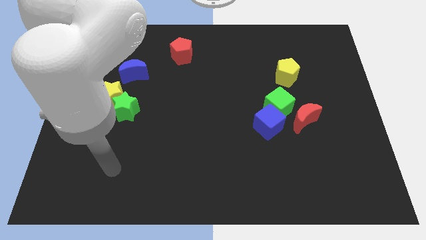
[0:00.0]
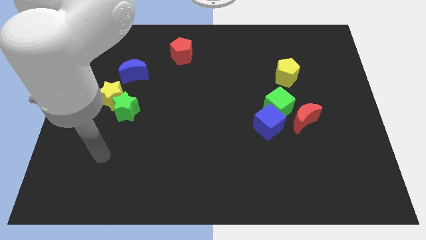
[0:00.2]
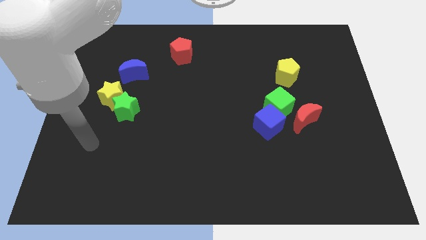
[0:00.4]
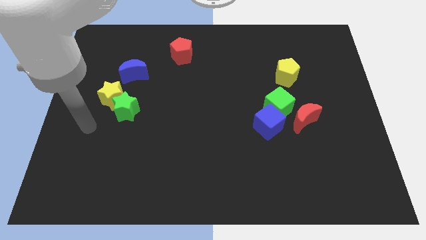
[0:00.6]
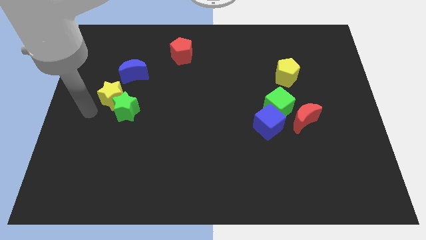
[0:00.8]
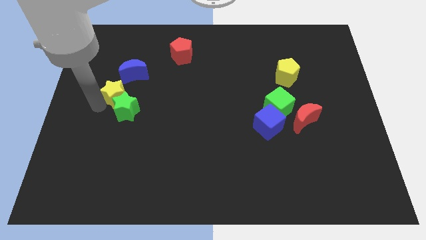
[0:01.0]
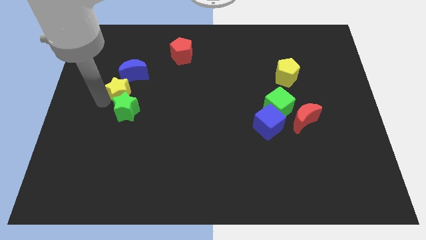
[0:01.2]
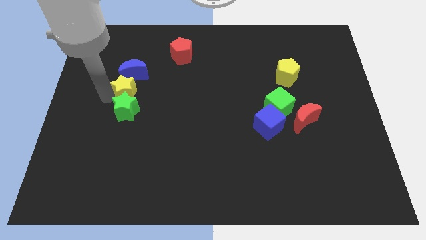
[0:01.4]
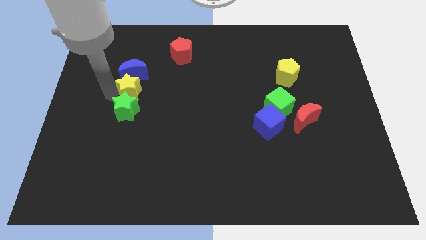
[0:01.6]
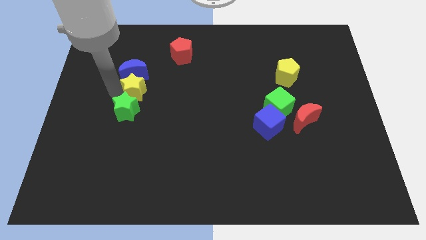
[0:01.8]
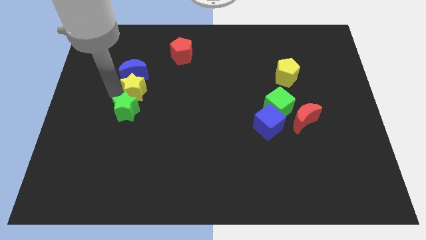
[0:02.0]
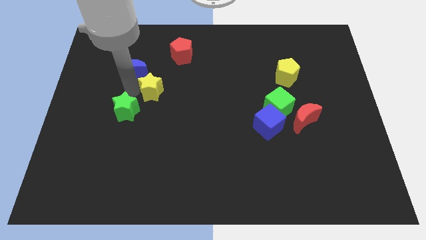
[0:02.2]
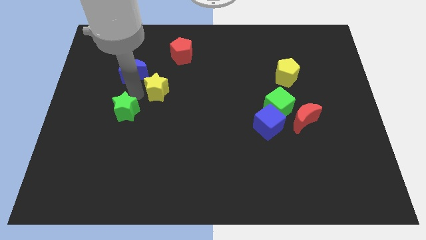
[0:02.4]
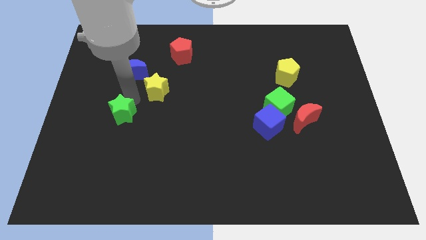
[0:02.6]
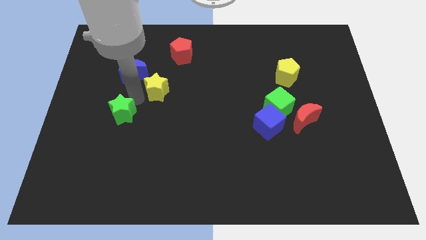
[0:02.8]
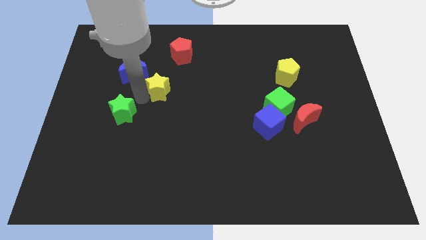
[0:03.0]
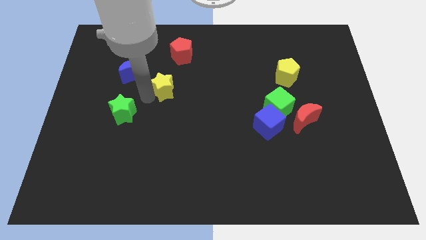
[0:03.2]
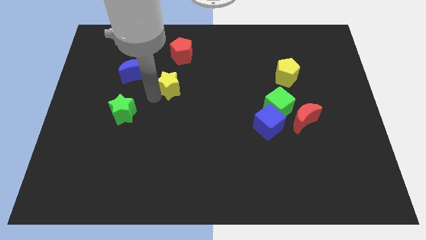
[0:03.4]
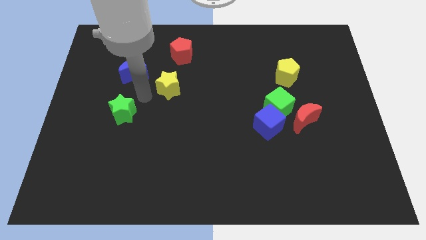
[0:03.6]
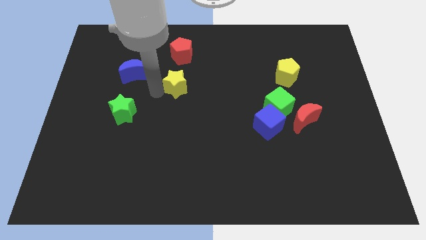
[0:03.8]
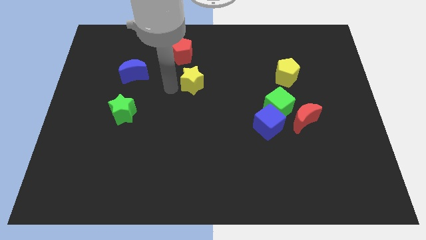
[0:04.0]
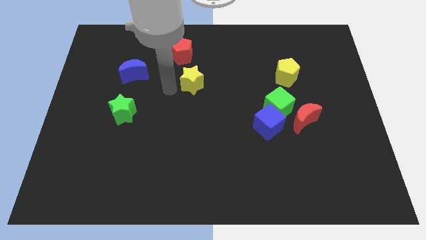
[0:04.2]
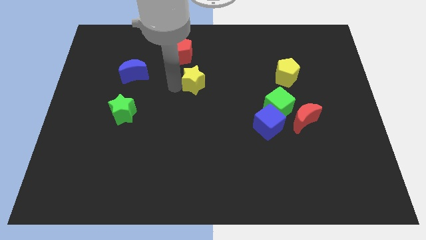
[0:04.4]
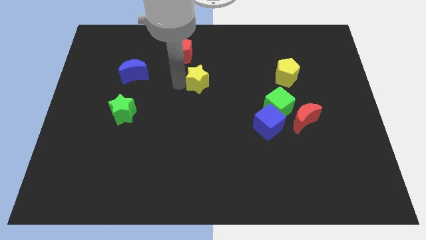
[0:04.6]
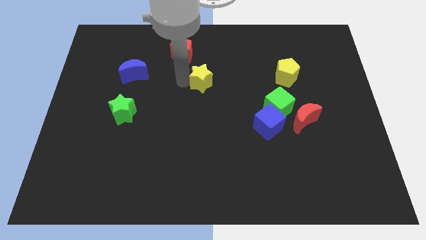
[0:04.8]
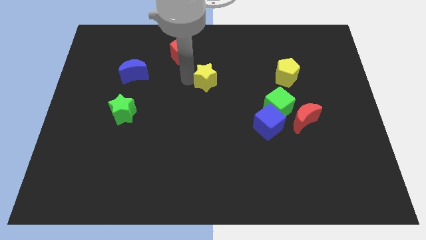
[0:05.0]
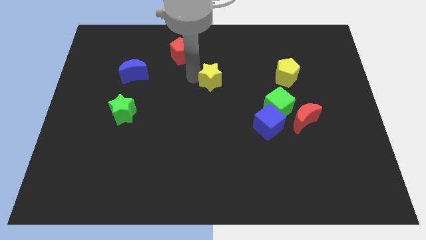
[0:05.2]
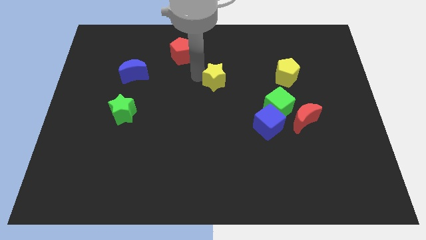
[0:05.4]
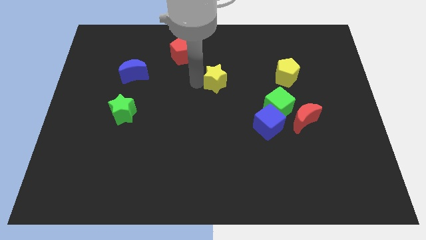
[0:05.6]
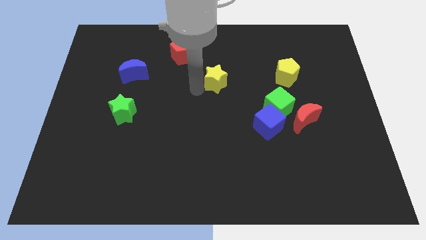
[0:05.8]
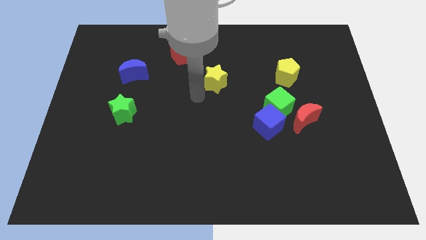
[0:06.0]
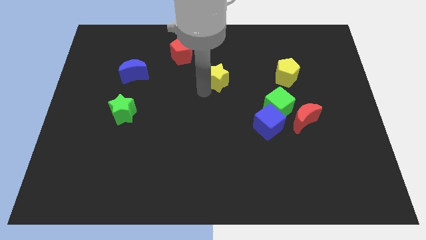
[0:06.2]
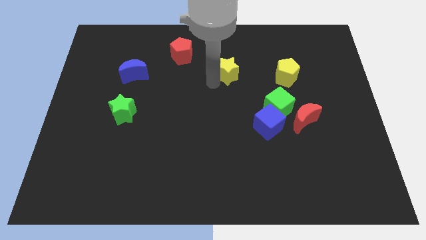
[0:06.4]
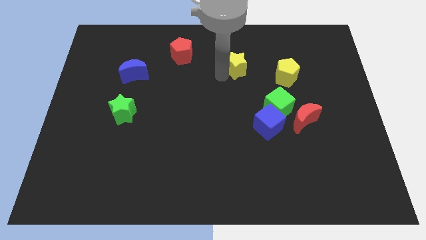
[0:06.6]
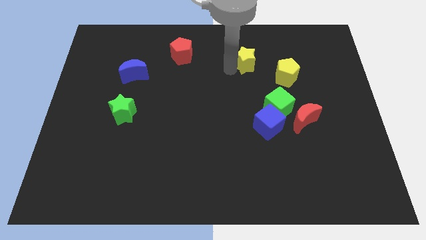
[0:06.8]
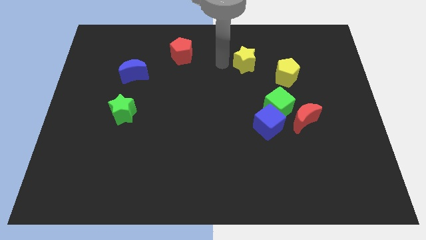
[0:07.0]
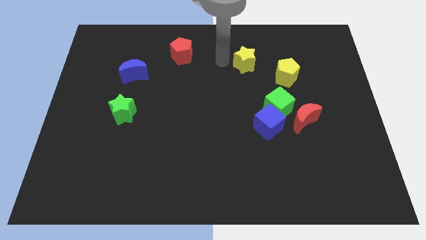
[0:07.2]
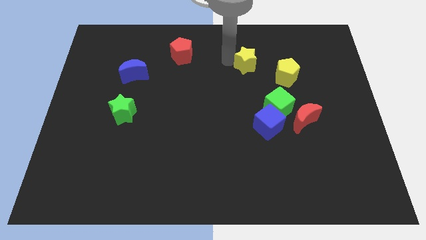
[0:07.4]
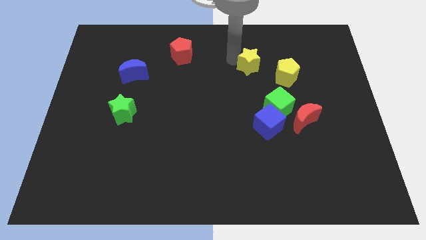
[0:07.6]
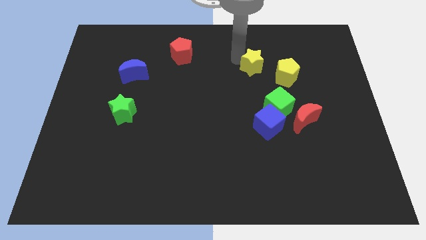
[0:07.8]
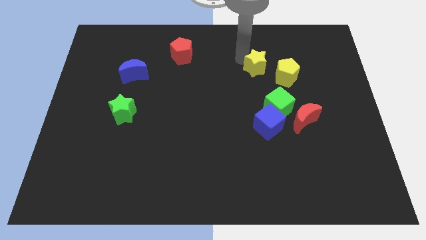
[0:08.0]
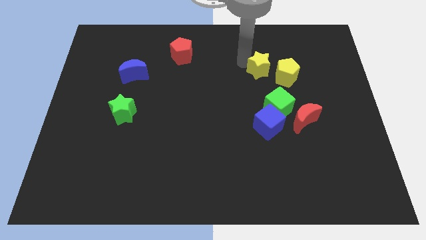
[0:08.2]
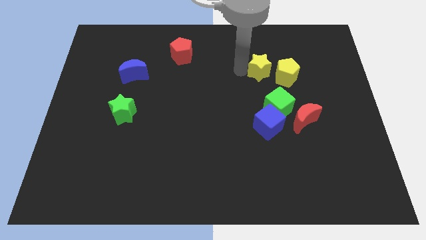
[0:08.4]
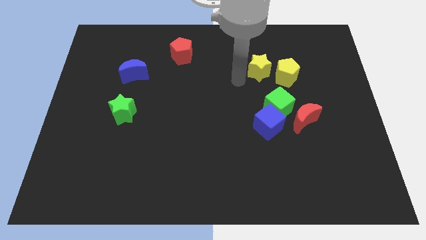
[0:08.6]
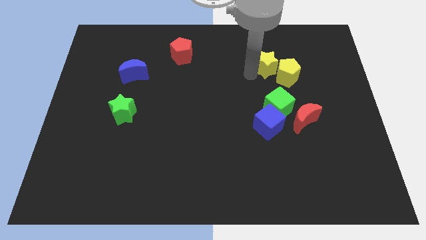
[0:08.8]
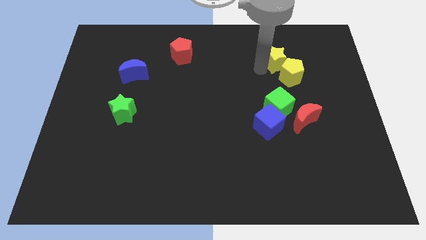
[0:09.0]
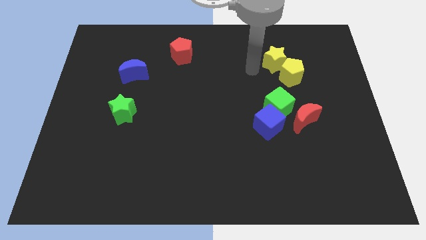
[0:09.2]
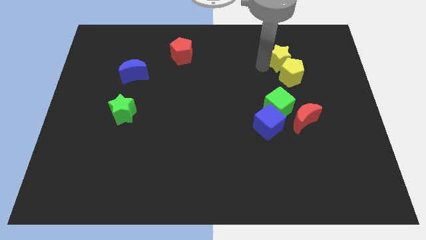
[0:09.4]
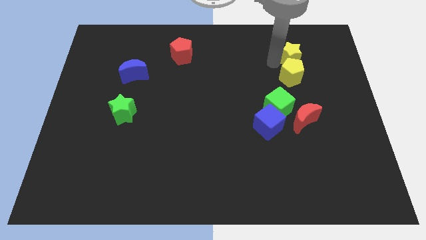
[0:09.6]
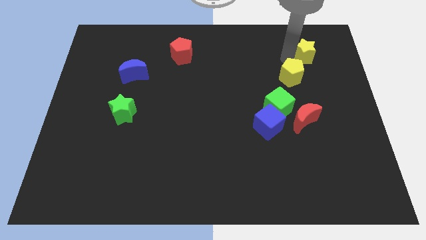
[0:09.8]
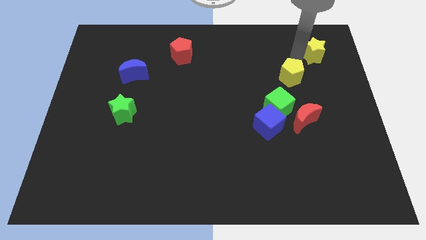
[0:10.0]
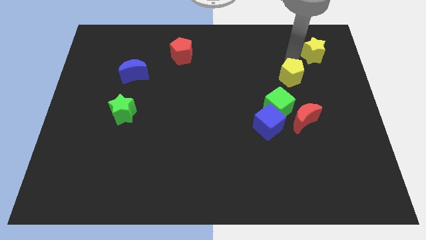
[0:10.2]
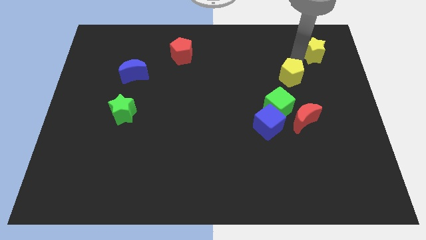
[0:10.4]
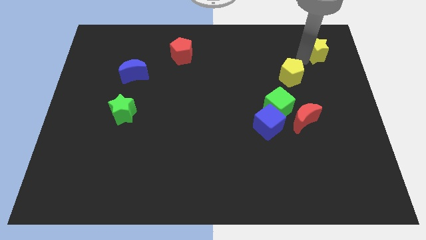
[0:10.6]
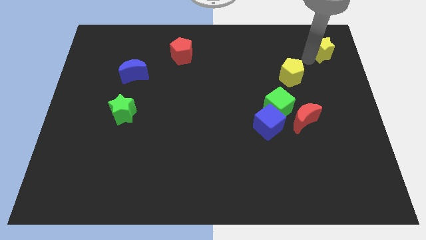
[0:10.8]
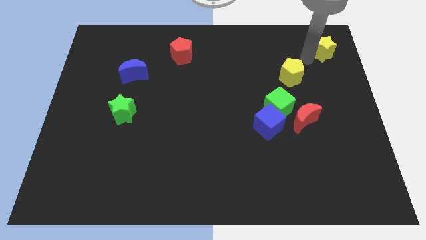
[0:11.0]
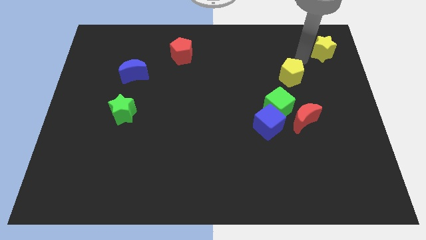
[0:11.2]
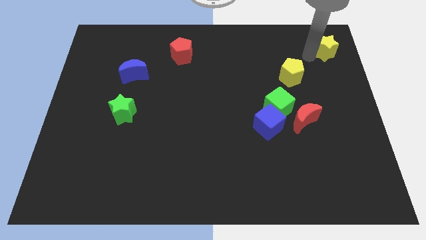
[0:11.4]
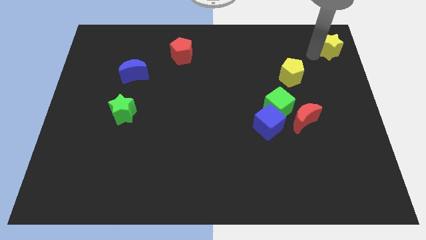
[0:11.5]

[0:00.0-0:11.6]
move the yellow star to the top right of the board

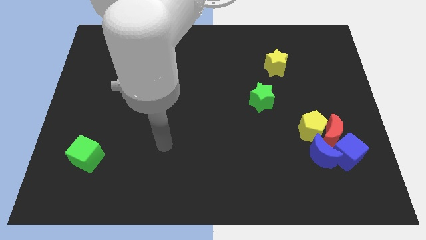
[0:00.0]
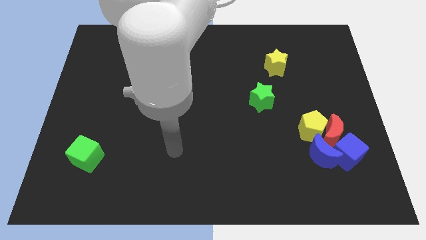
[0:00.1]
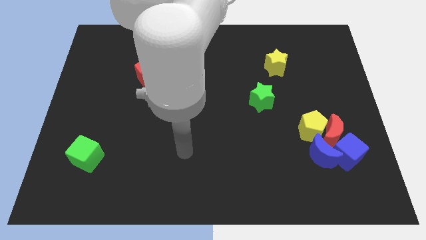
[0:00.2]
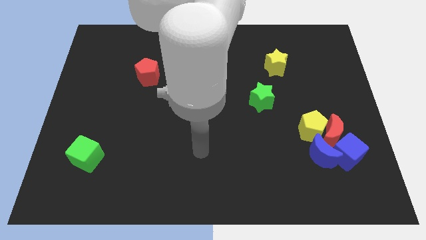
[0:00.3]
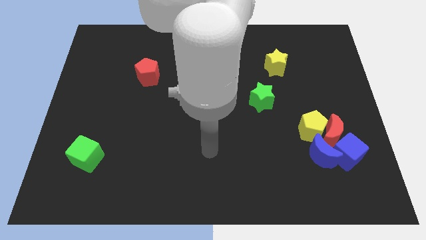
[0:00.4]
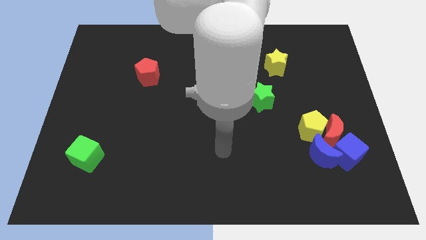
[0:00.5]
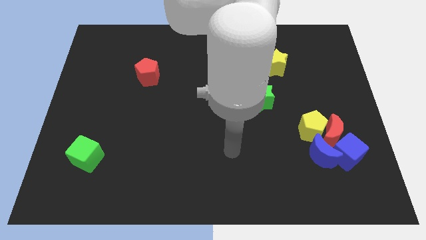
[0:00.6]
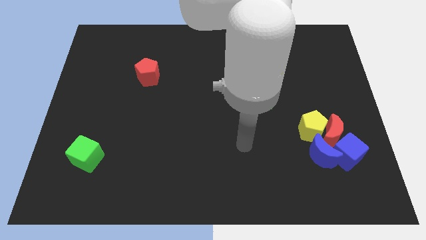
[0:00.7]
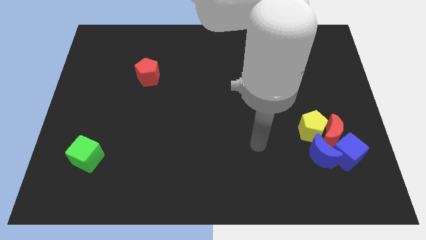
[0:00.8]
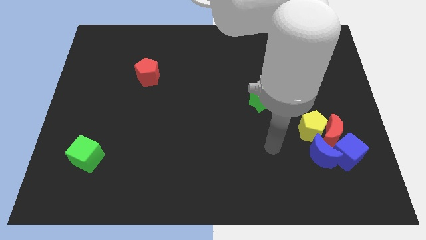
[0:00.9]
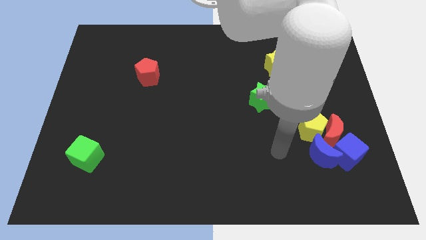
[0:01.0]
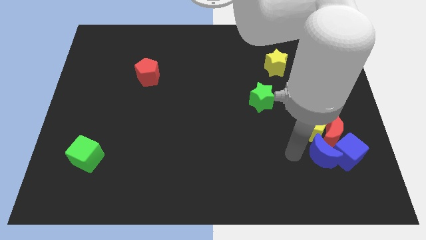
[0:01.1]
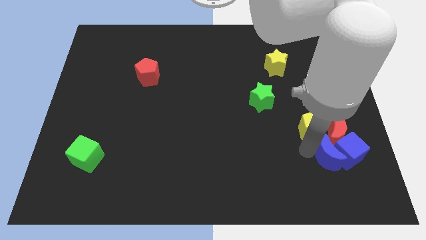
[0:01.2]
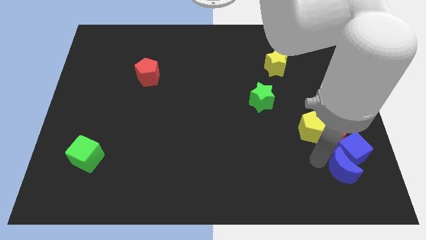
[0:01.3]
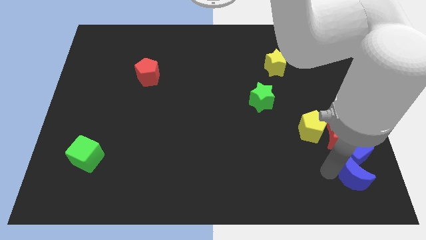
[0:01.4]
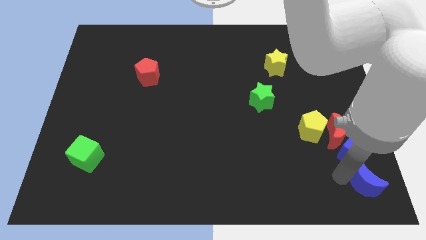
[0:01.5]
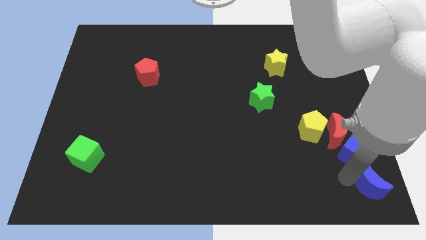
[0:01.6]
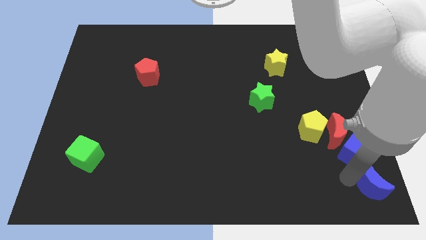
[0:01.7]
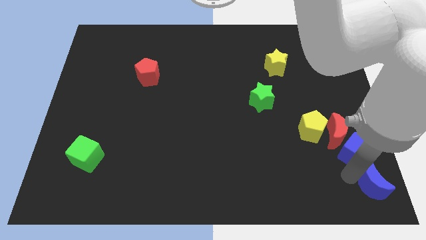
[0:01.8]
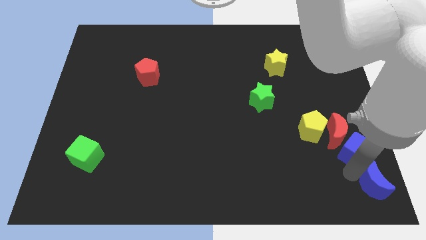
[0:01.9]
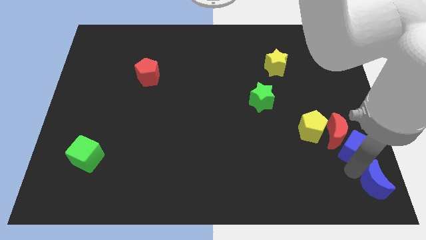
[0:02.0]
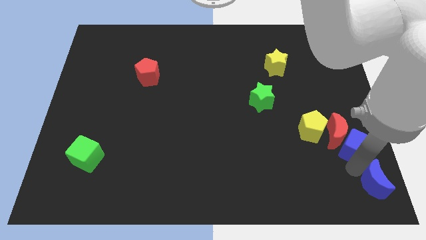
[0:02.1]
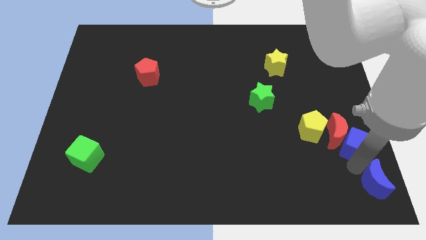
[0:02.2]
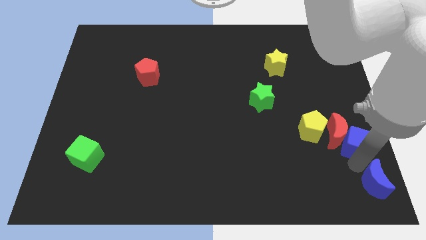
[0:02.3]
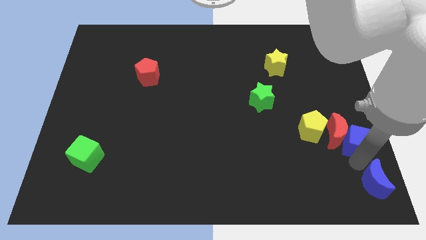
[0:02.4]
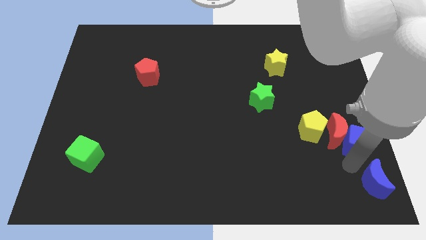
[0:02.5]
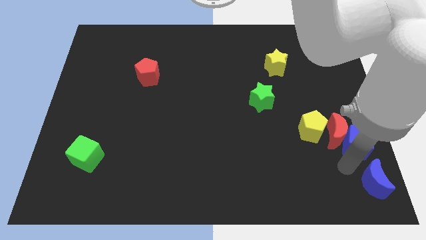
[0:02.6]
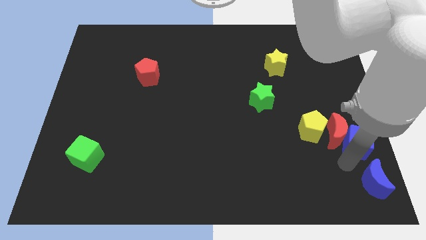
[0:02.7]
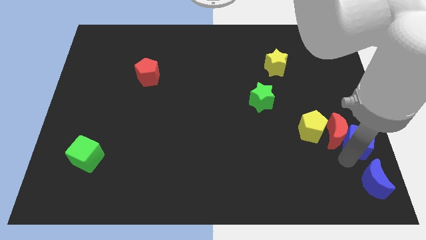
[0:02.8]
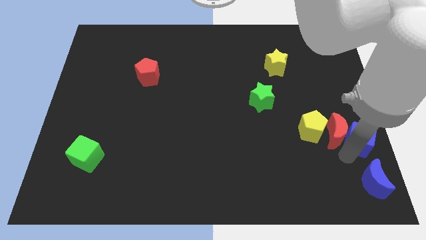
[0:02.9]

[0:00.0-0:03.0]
put the blue cube to the center right
